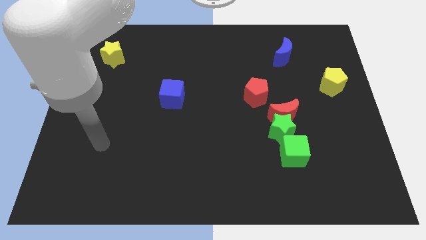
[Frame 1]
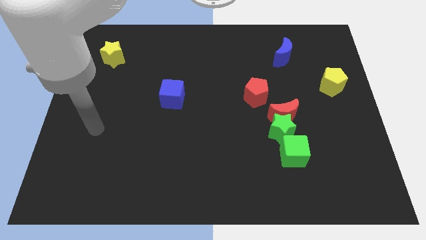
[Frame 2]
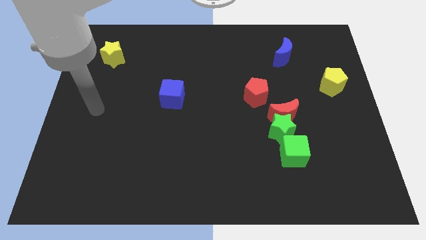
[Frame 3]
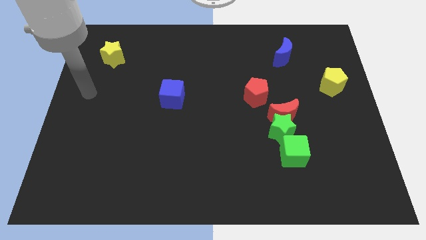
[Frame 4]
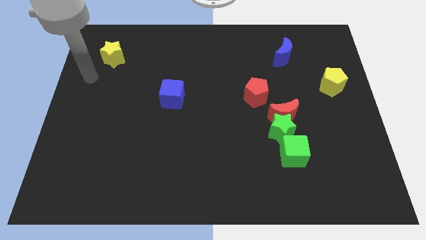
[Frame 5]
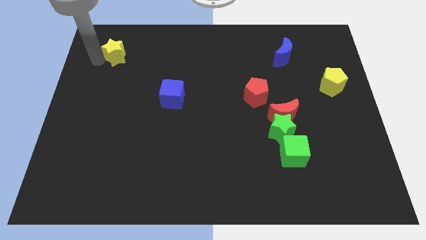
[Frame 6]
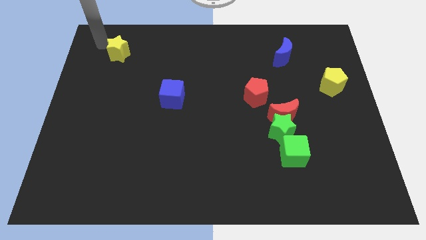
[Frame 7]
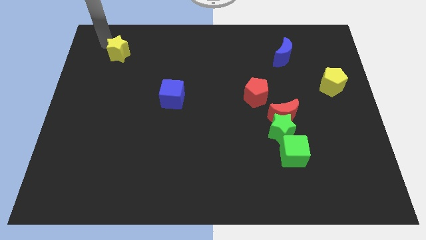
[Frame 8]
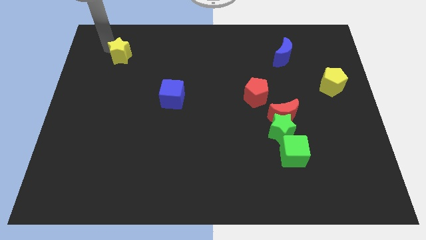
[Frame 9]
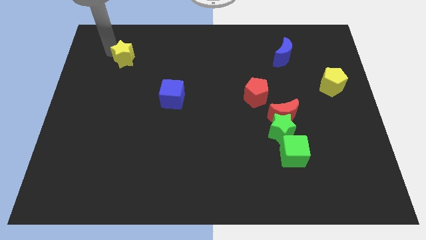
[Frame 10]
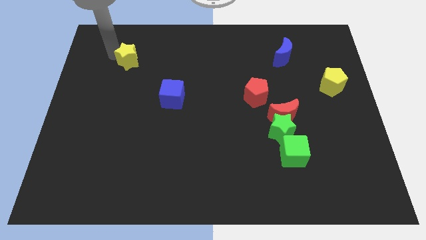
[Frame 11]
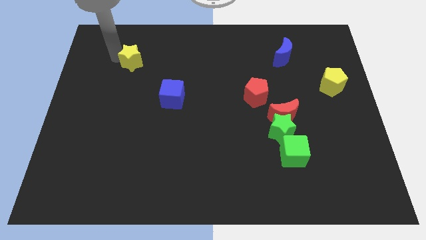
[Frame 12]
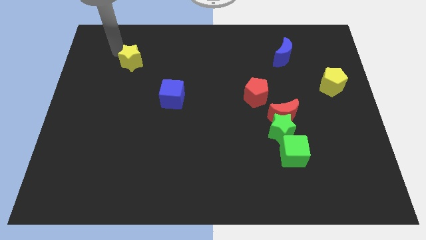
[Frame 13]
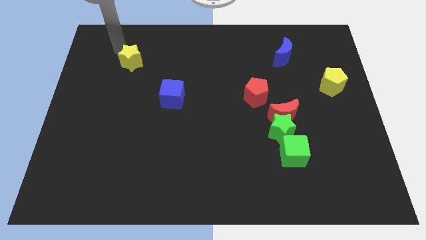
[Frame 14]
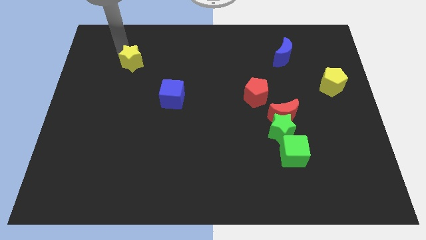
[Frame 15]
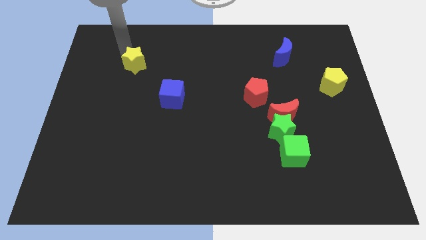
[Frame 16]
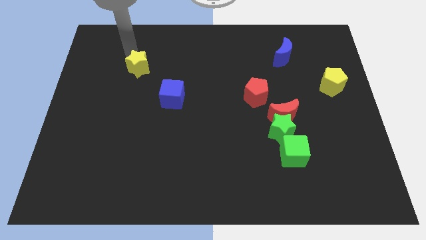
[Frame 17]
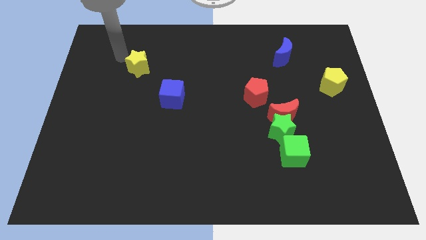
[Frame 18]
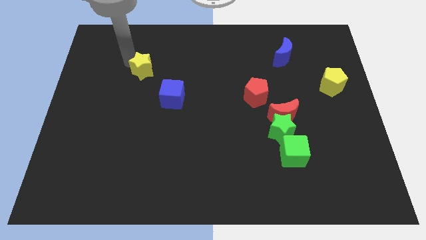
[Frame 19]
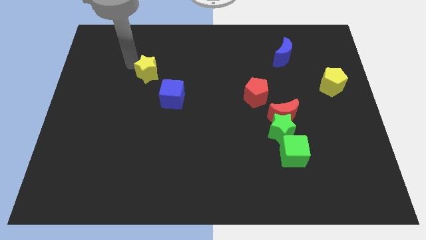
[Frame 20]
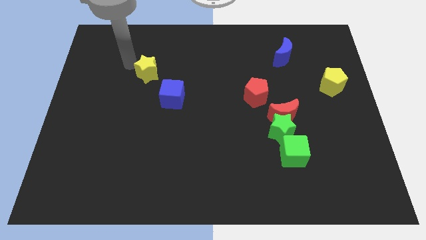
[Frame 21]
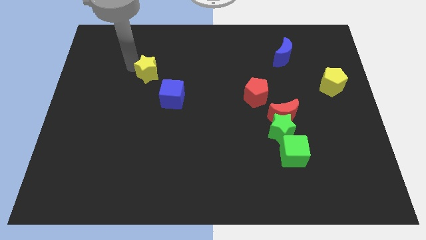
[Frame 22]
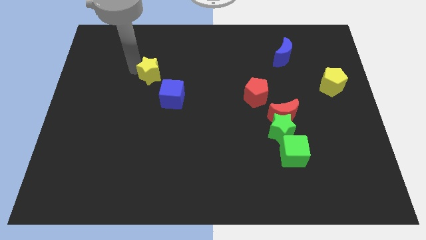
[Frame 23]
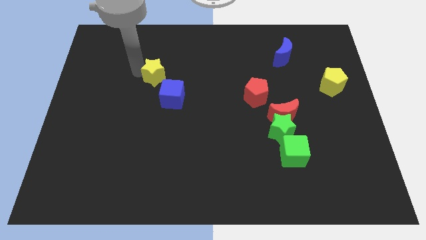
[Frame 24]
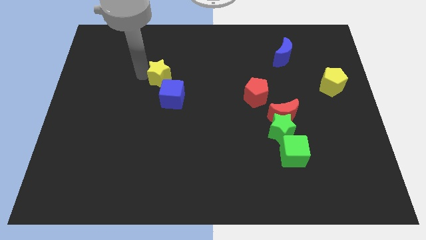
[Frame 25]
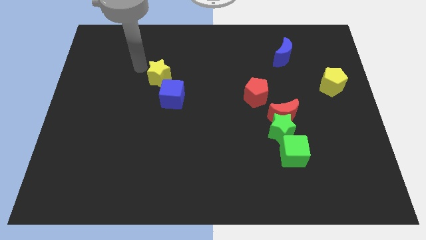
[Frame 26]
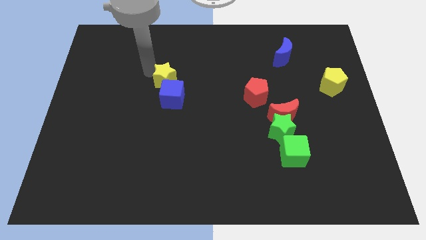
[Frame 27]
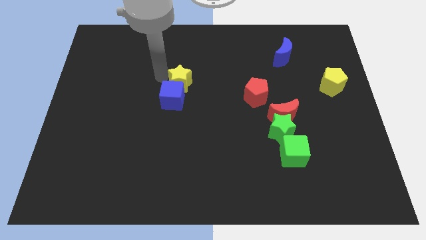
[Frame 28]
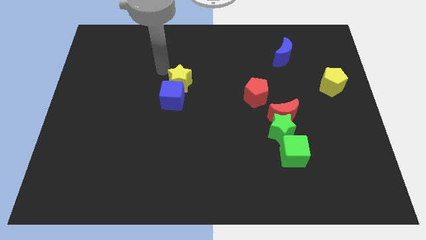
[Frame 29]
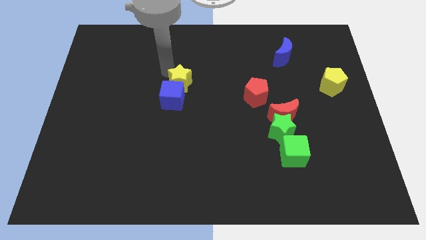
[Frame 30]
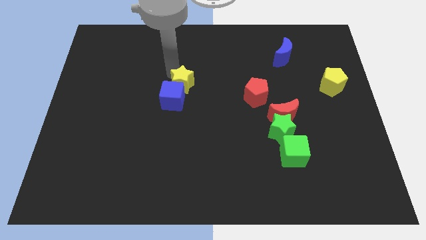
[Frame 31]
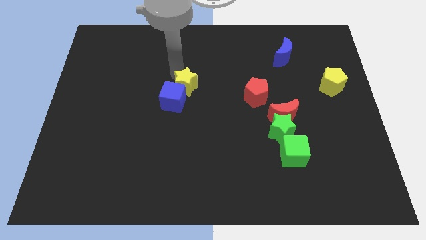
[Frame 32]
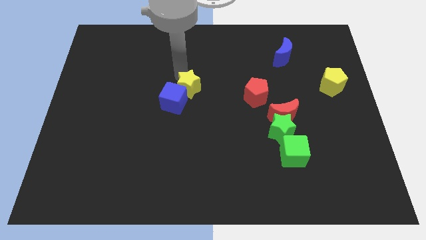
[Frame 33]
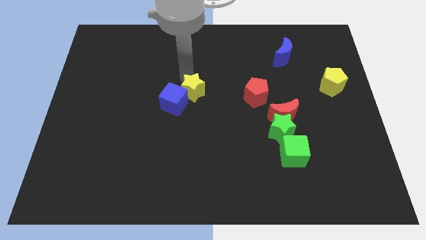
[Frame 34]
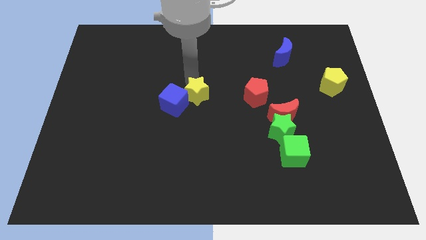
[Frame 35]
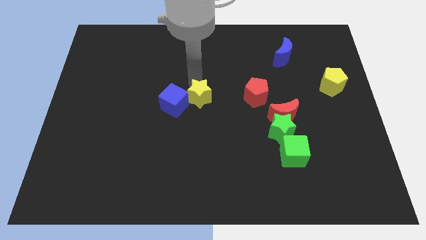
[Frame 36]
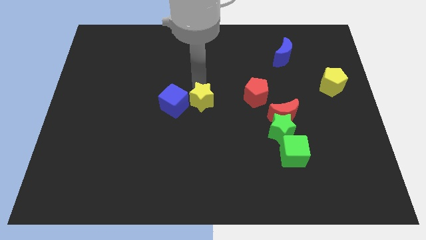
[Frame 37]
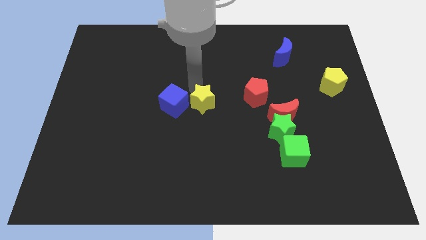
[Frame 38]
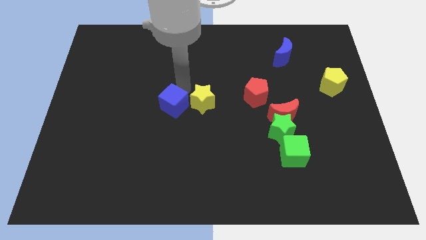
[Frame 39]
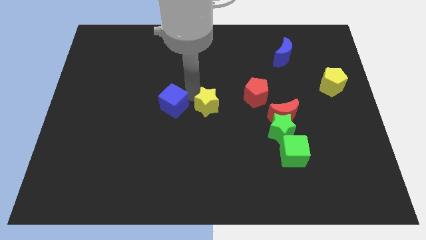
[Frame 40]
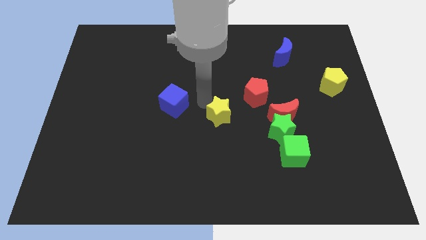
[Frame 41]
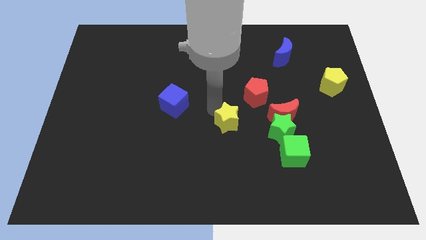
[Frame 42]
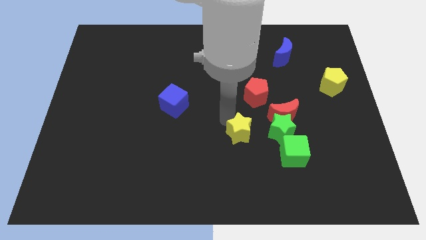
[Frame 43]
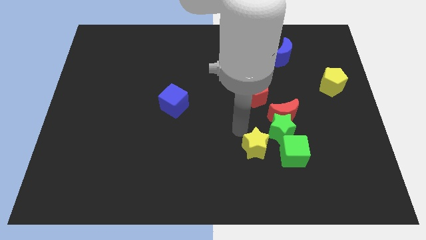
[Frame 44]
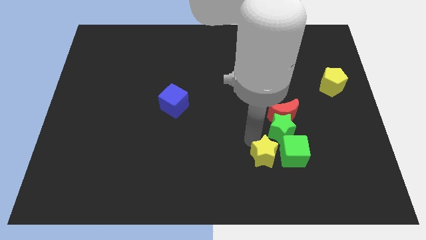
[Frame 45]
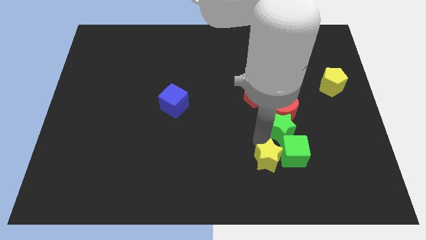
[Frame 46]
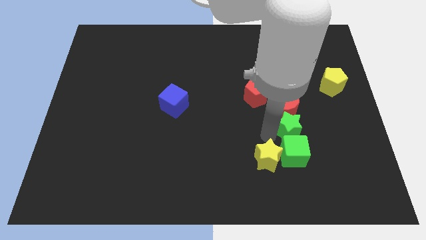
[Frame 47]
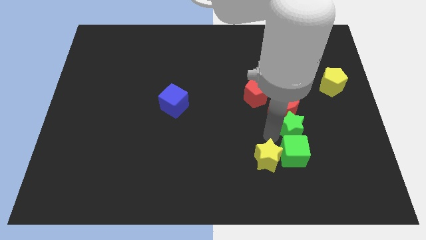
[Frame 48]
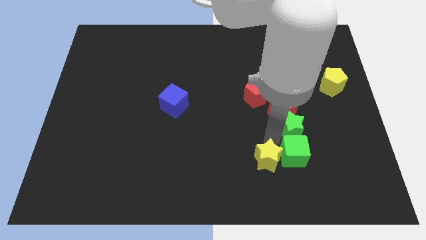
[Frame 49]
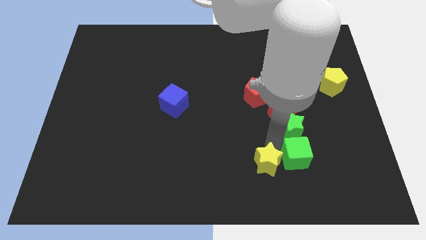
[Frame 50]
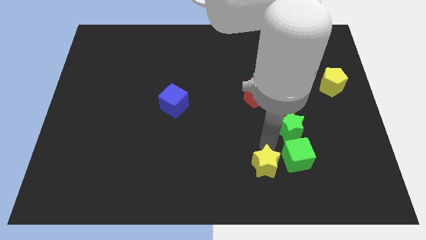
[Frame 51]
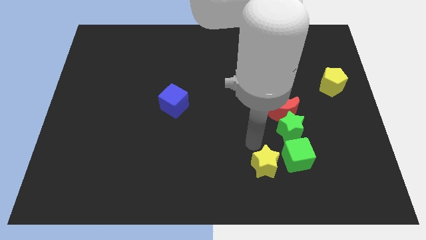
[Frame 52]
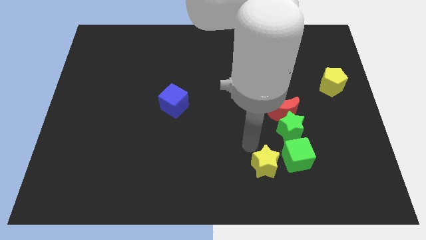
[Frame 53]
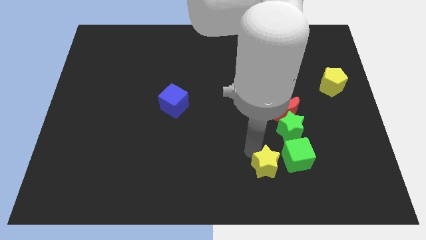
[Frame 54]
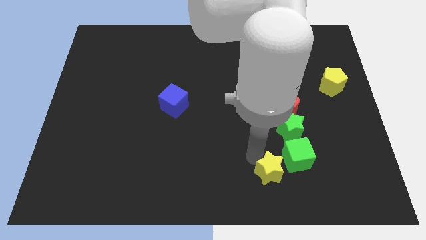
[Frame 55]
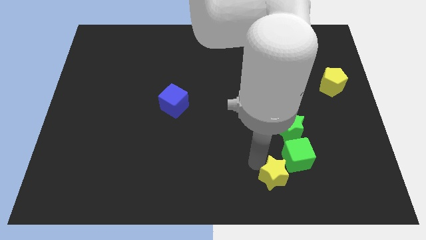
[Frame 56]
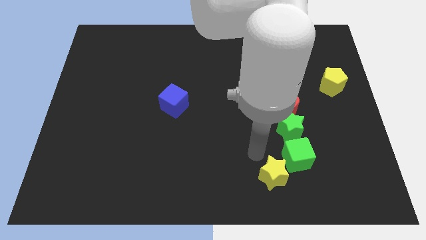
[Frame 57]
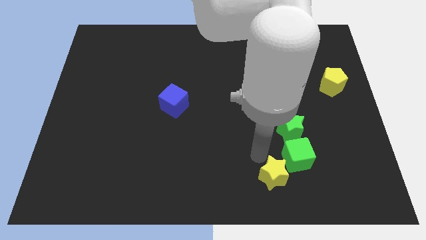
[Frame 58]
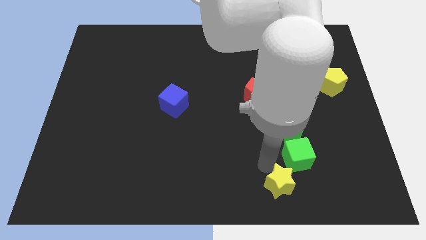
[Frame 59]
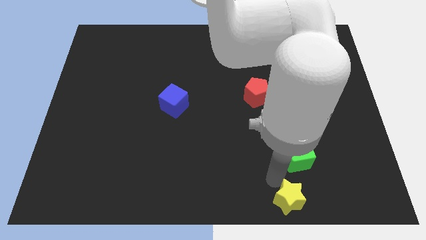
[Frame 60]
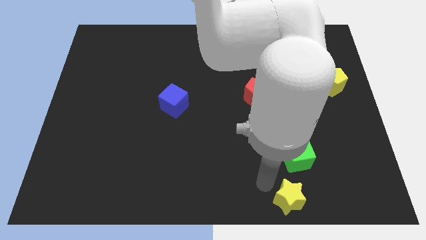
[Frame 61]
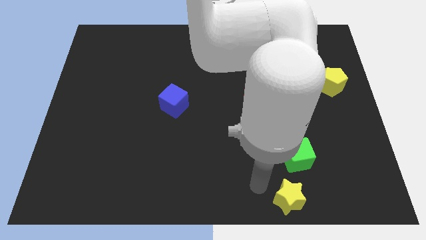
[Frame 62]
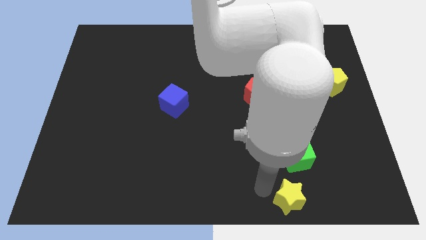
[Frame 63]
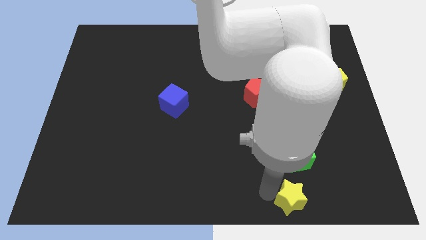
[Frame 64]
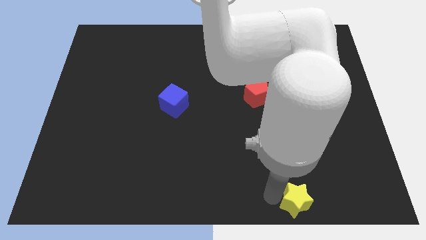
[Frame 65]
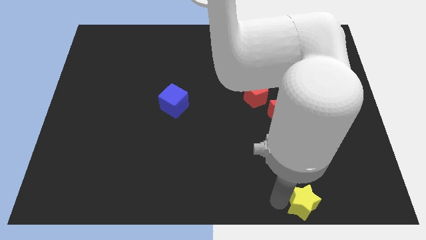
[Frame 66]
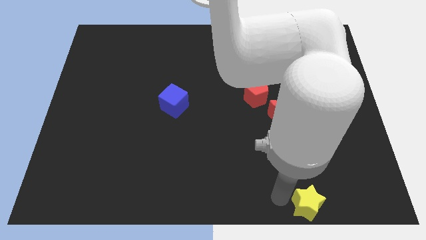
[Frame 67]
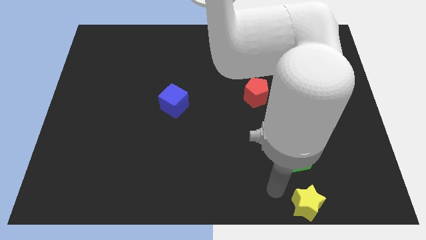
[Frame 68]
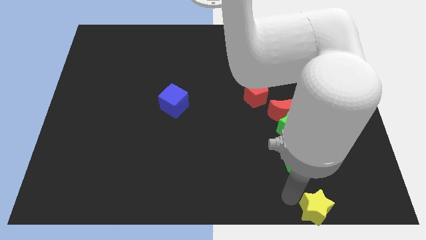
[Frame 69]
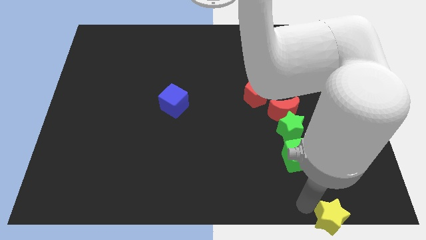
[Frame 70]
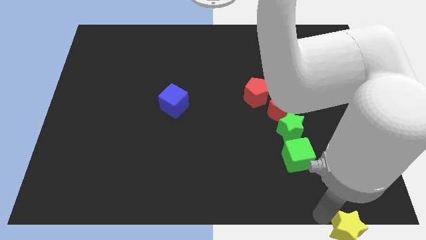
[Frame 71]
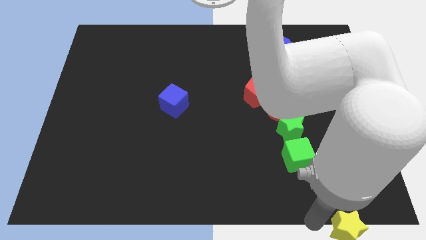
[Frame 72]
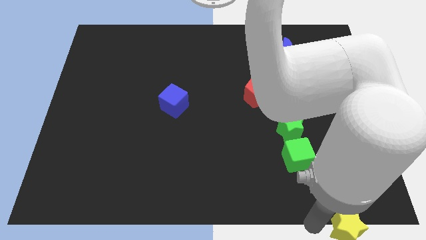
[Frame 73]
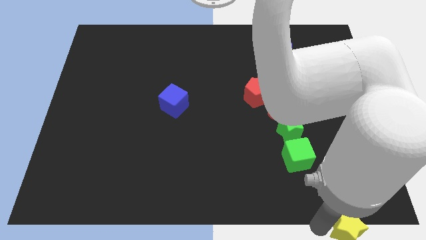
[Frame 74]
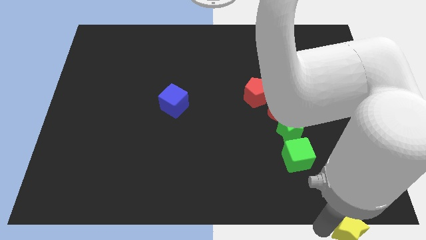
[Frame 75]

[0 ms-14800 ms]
put the yellow star to the bottom right corner
